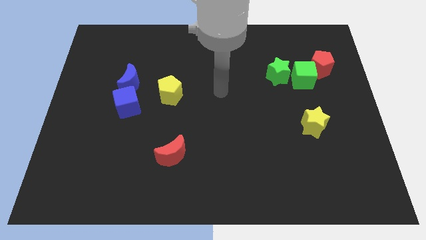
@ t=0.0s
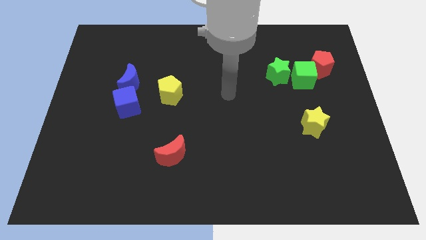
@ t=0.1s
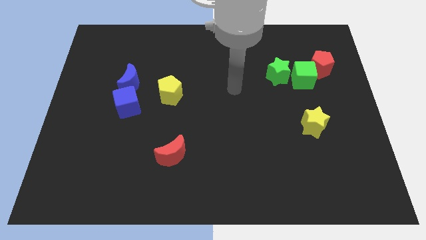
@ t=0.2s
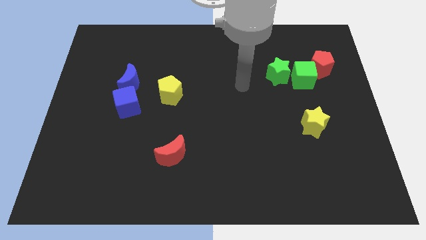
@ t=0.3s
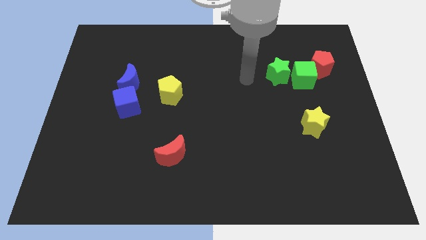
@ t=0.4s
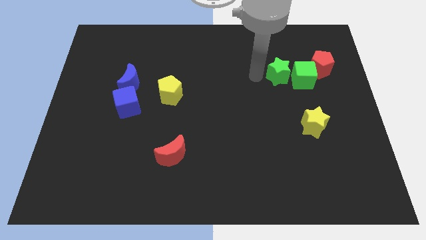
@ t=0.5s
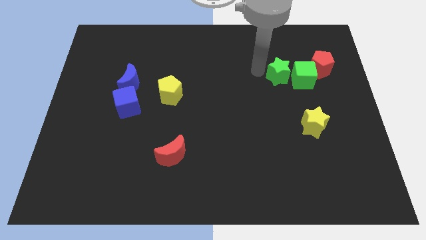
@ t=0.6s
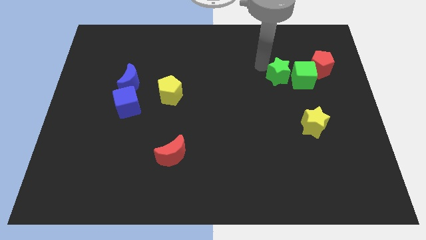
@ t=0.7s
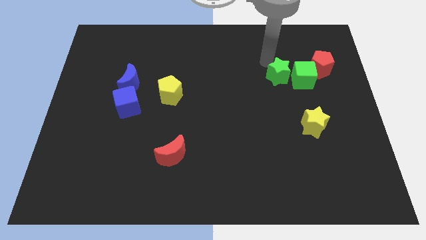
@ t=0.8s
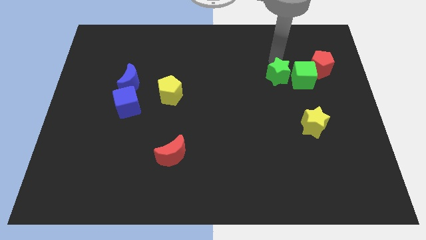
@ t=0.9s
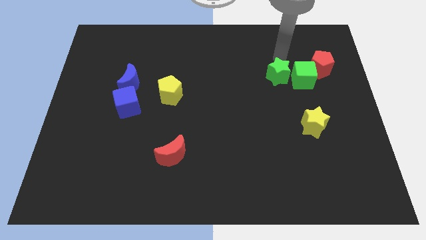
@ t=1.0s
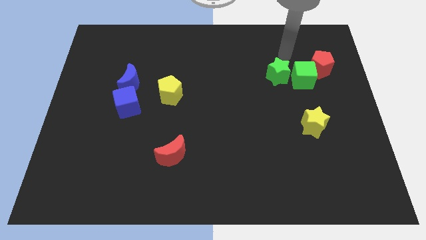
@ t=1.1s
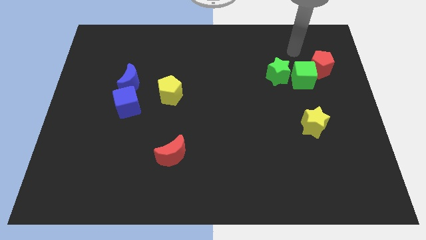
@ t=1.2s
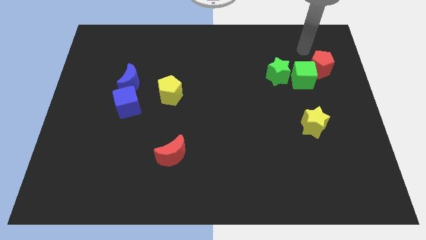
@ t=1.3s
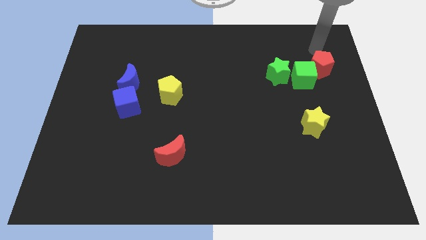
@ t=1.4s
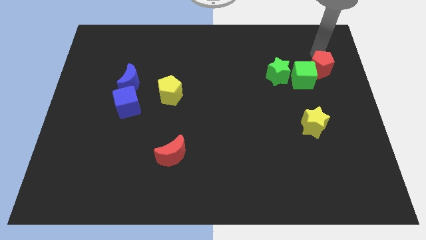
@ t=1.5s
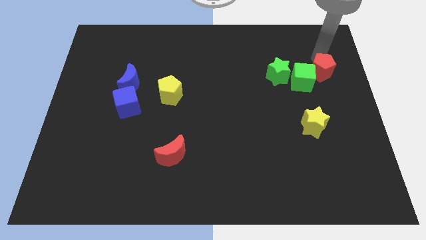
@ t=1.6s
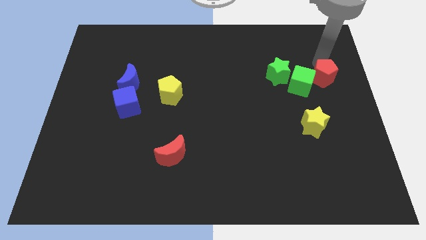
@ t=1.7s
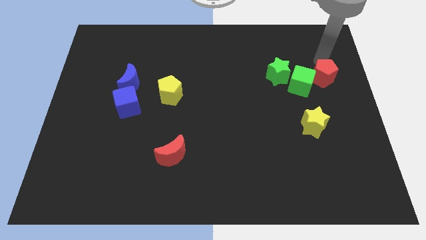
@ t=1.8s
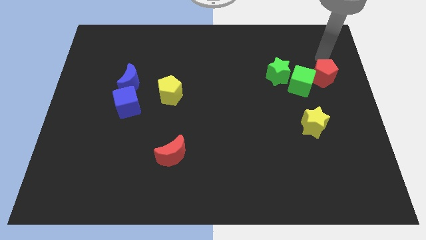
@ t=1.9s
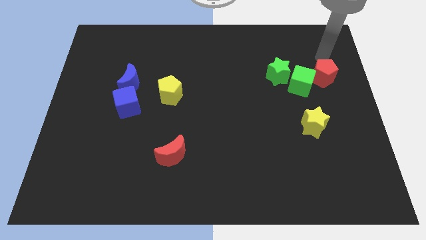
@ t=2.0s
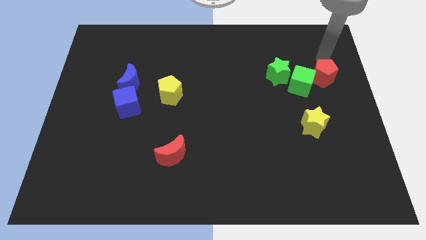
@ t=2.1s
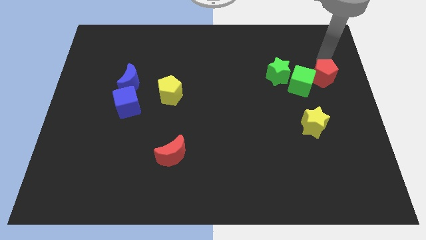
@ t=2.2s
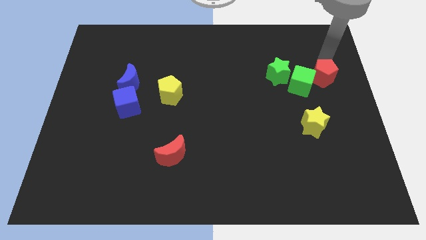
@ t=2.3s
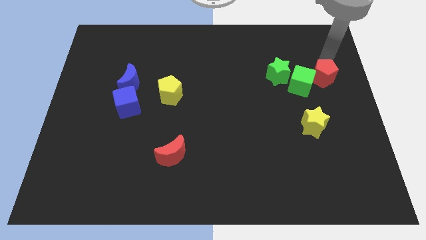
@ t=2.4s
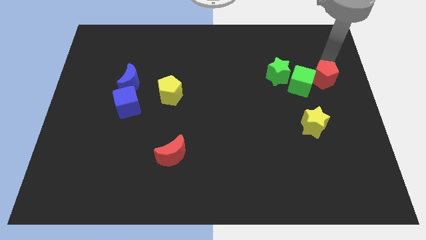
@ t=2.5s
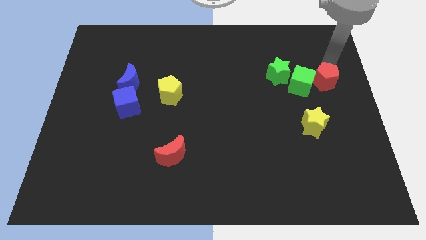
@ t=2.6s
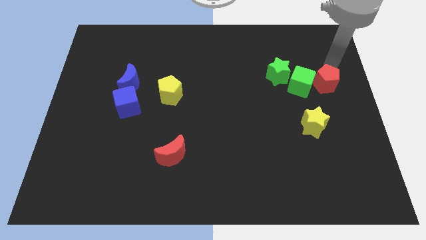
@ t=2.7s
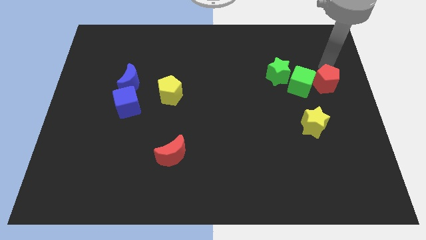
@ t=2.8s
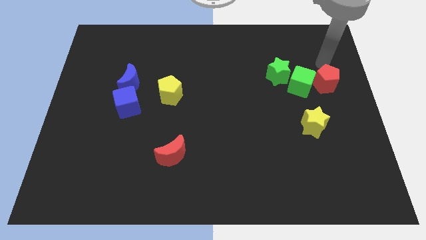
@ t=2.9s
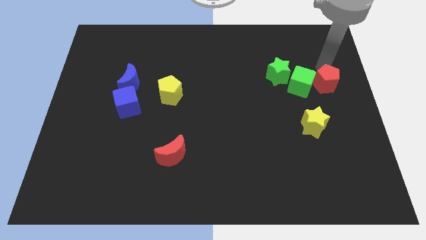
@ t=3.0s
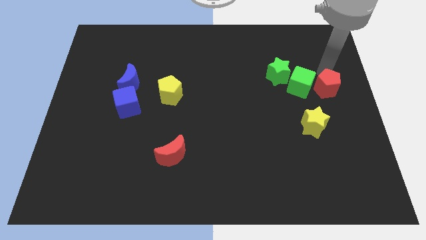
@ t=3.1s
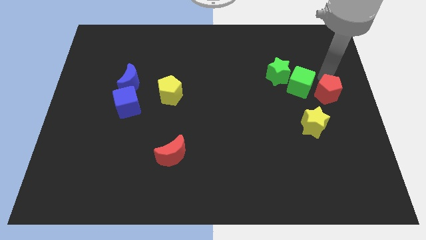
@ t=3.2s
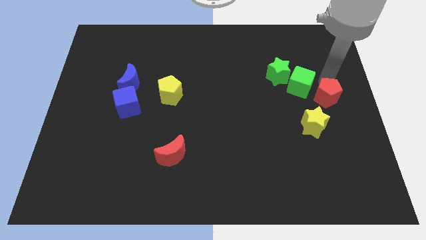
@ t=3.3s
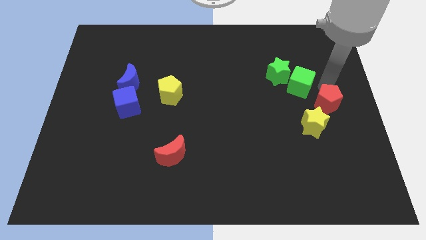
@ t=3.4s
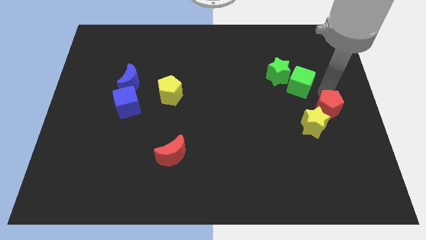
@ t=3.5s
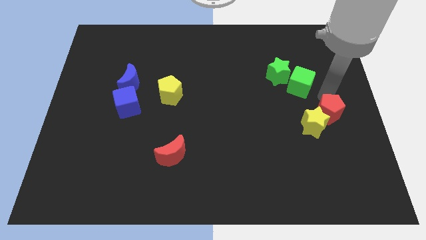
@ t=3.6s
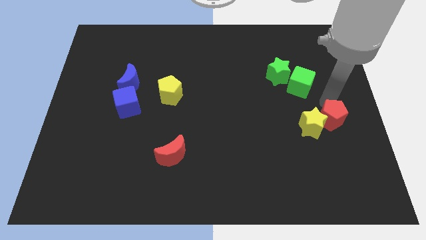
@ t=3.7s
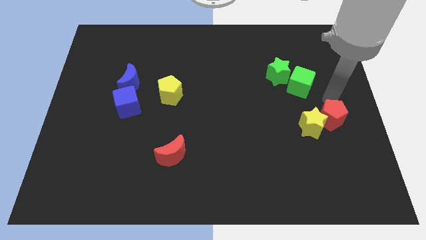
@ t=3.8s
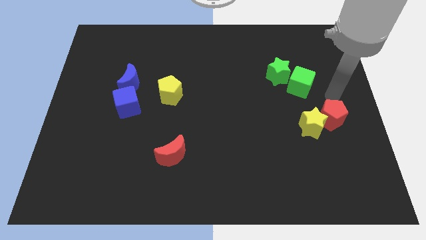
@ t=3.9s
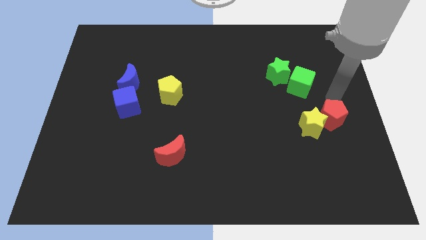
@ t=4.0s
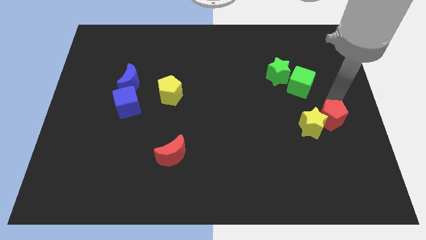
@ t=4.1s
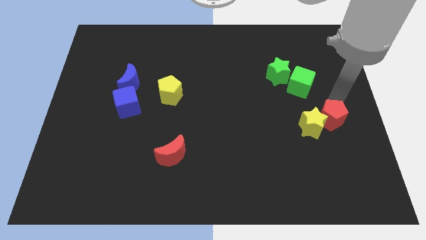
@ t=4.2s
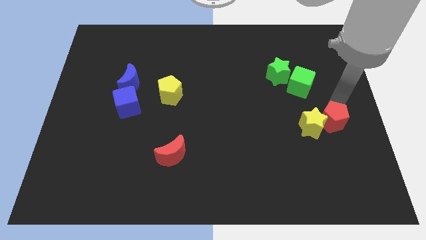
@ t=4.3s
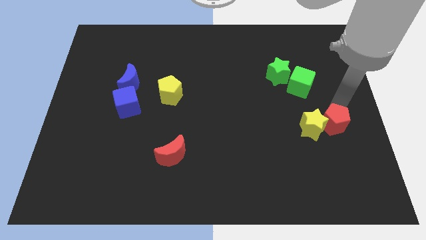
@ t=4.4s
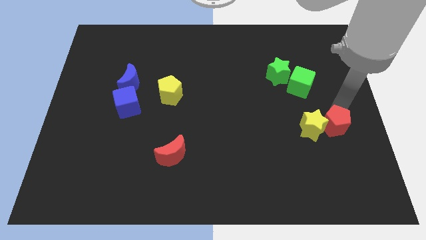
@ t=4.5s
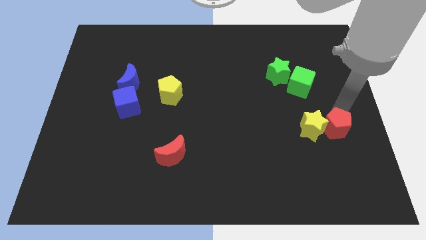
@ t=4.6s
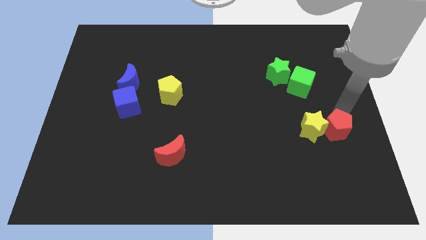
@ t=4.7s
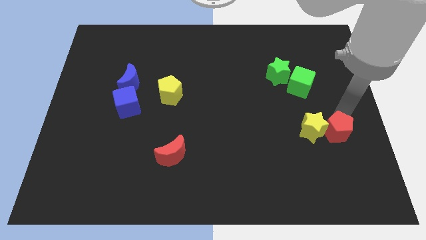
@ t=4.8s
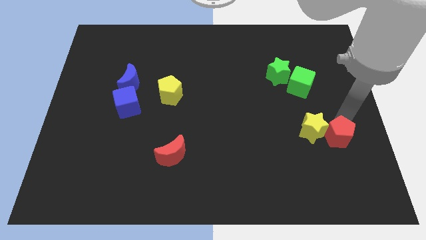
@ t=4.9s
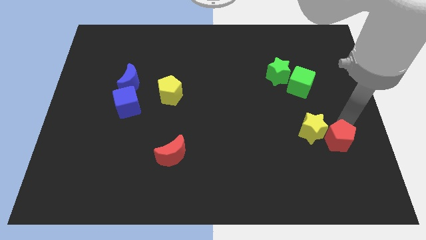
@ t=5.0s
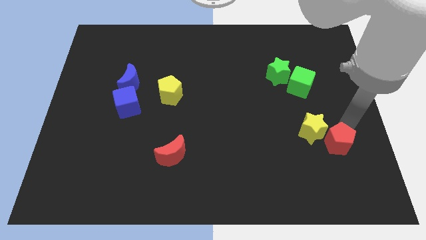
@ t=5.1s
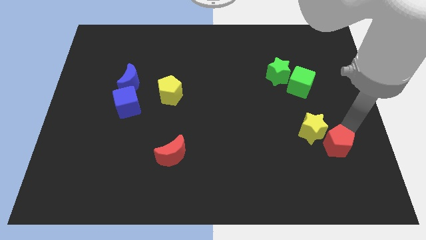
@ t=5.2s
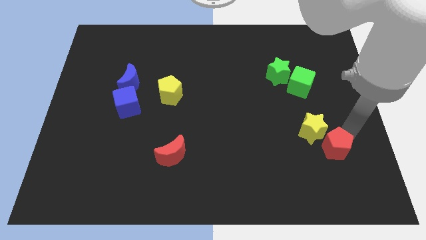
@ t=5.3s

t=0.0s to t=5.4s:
put the red pentagon to the bottom side of the yellow star

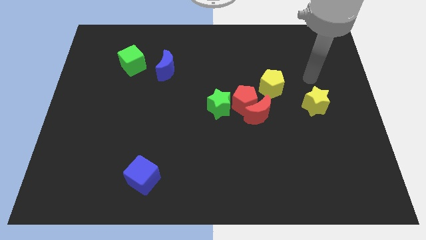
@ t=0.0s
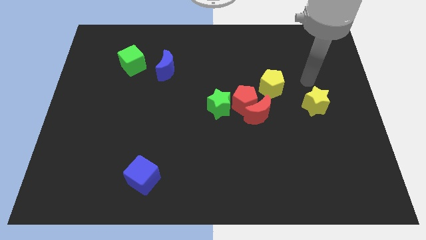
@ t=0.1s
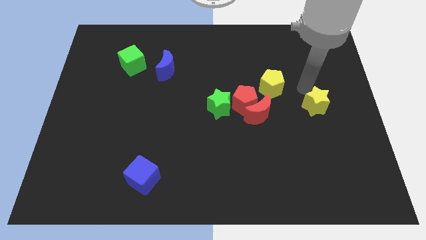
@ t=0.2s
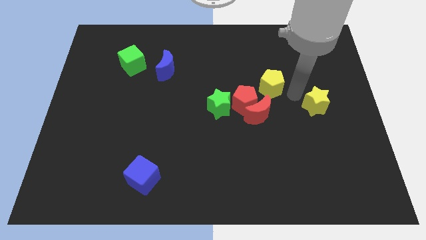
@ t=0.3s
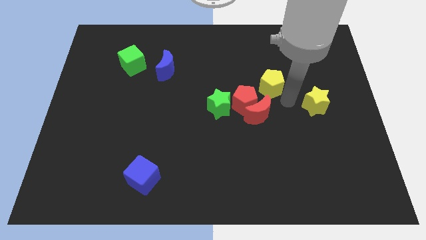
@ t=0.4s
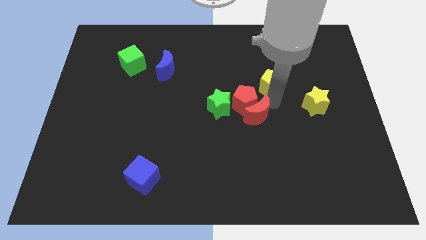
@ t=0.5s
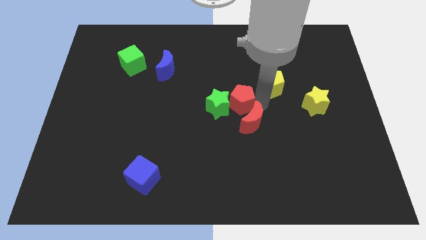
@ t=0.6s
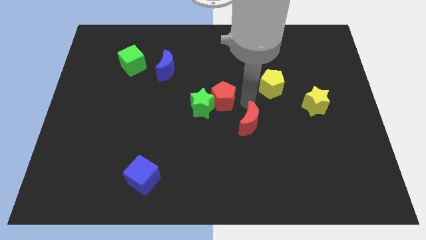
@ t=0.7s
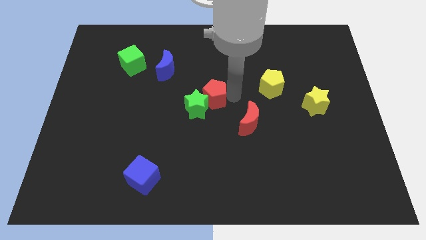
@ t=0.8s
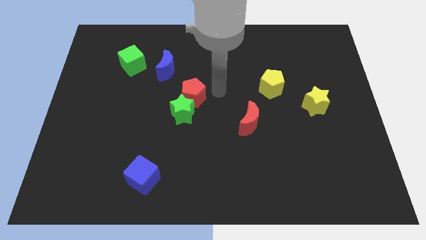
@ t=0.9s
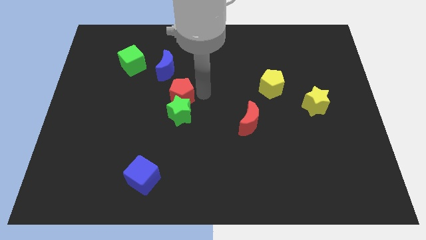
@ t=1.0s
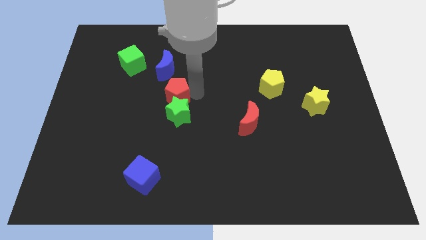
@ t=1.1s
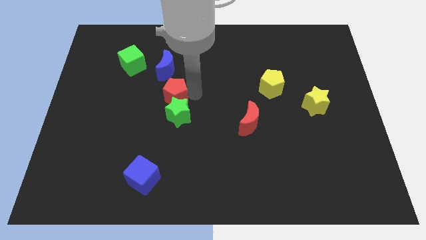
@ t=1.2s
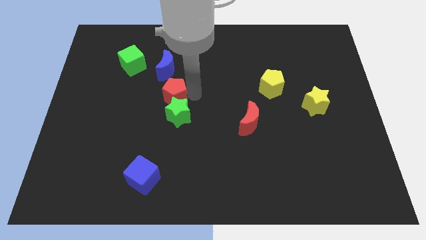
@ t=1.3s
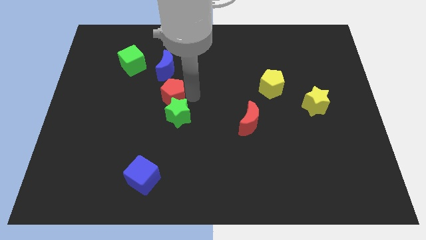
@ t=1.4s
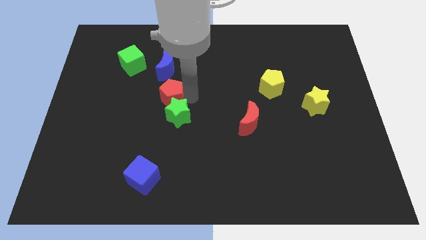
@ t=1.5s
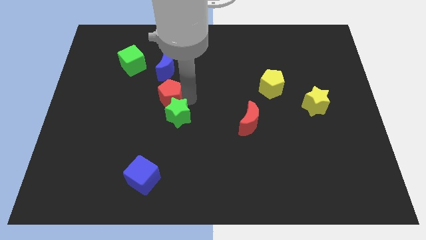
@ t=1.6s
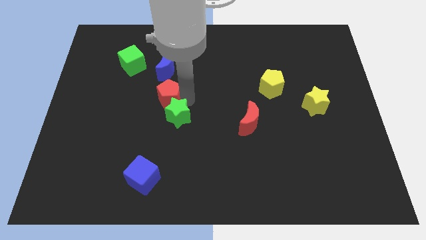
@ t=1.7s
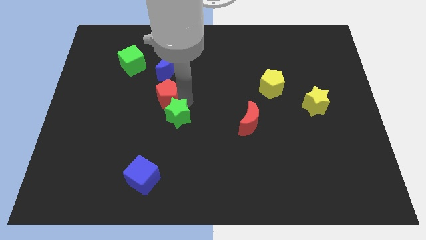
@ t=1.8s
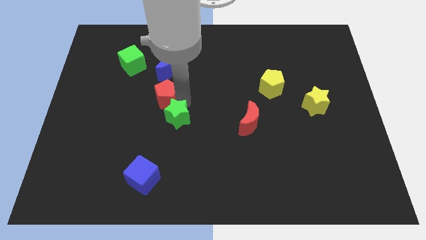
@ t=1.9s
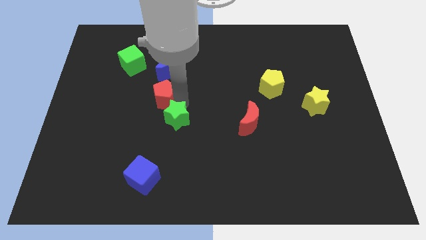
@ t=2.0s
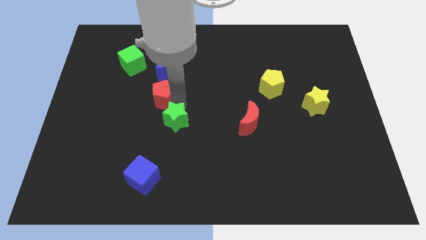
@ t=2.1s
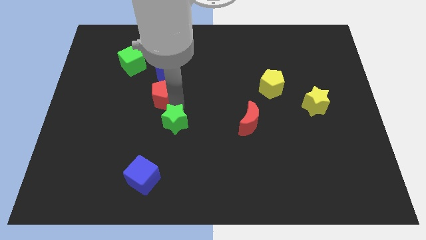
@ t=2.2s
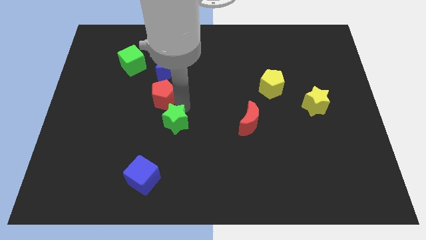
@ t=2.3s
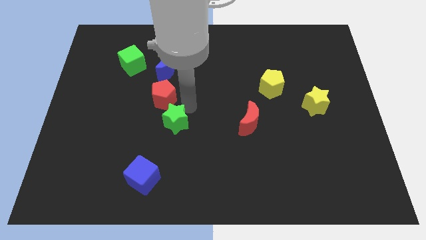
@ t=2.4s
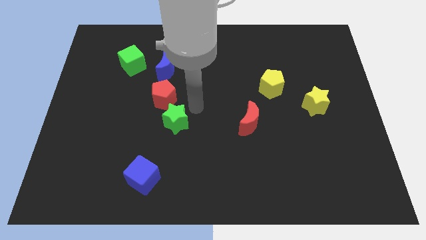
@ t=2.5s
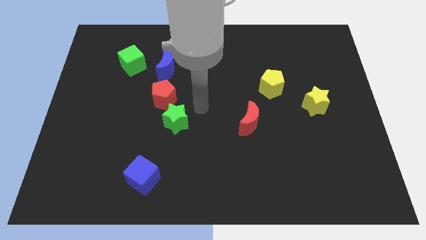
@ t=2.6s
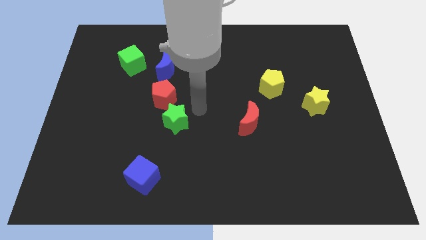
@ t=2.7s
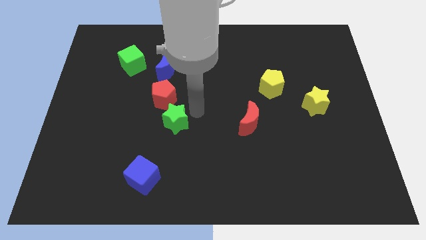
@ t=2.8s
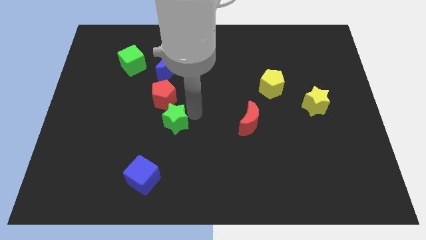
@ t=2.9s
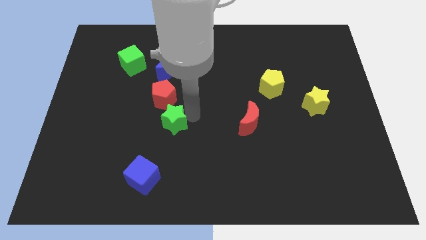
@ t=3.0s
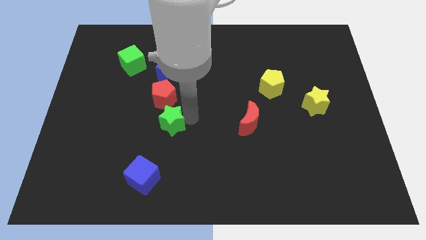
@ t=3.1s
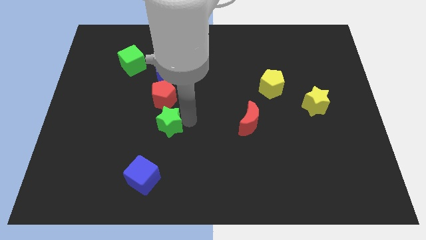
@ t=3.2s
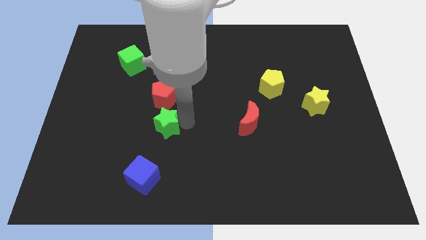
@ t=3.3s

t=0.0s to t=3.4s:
slide the green star to the top of the blue cube
